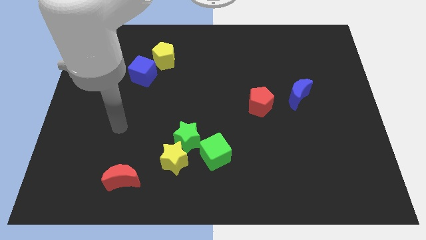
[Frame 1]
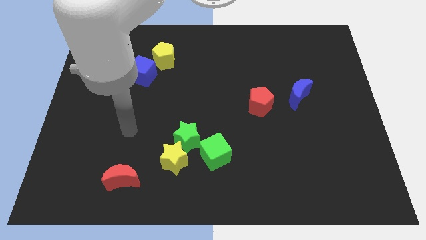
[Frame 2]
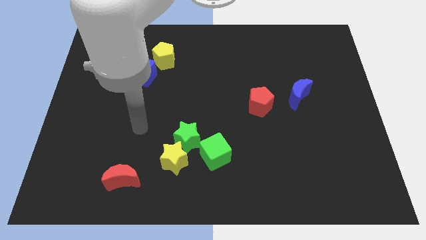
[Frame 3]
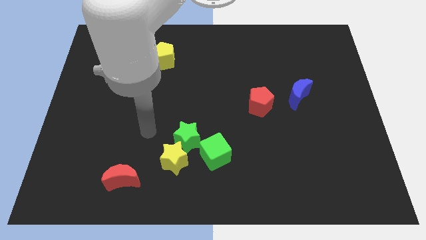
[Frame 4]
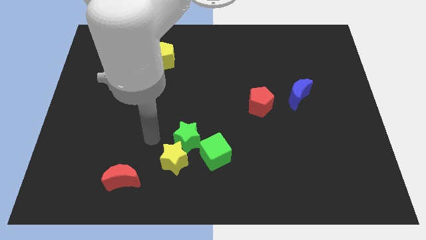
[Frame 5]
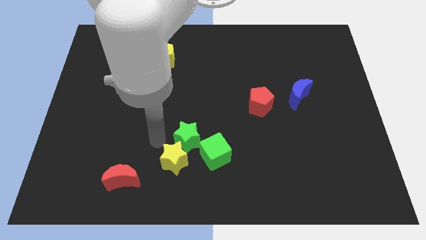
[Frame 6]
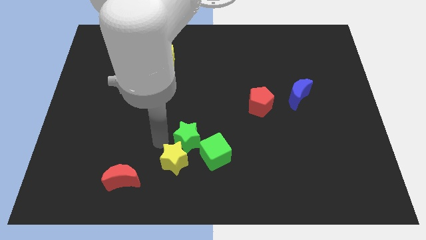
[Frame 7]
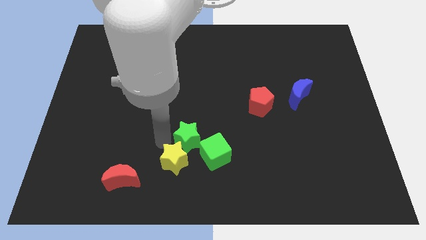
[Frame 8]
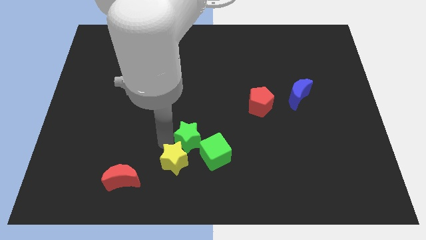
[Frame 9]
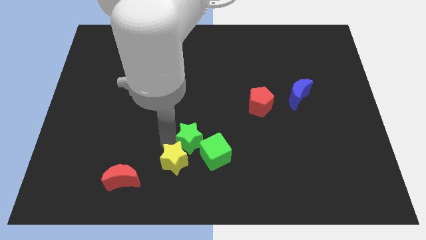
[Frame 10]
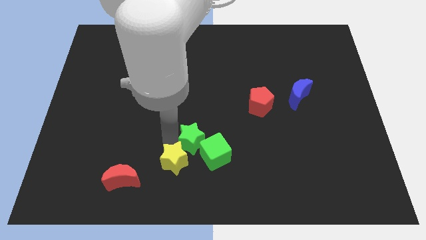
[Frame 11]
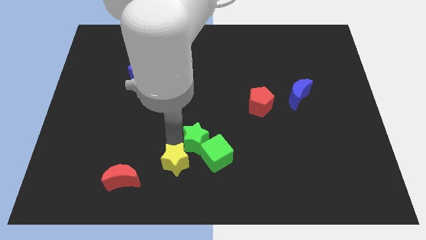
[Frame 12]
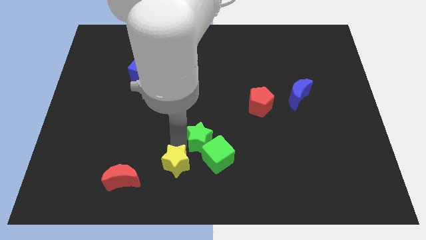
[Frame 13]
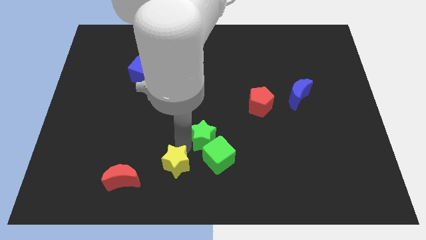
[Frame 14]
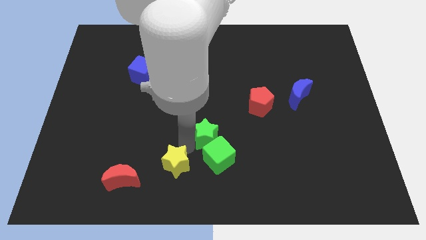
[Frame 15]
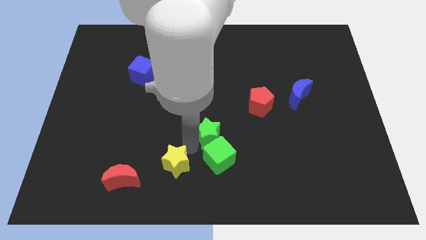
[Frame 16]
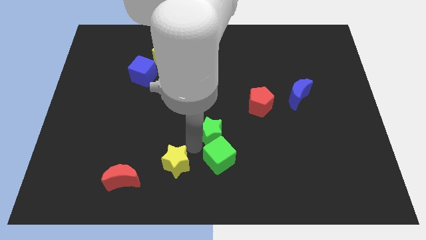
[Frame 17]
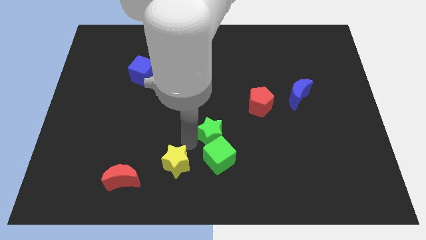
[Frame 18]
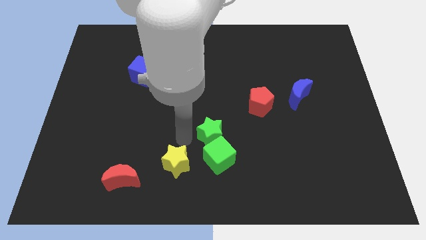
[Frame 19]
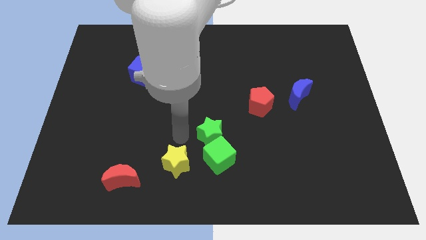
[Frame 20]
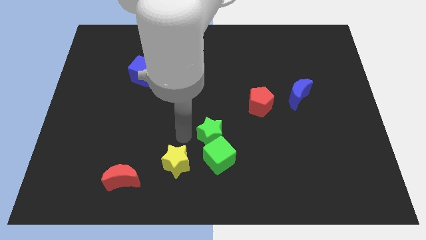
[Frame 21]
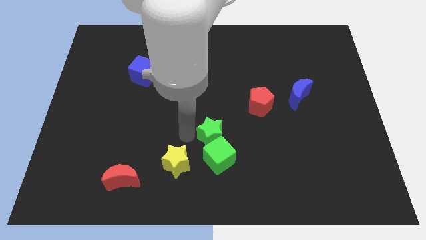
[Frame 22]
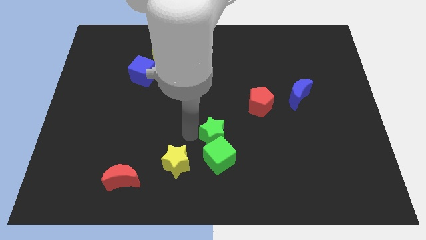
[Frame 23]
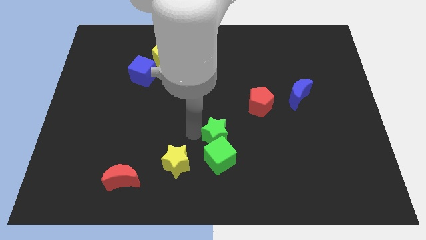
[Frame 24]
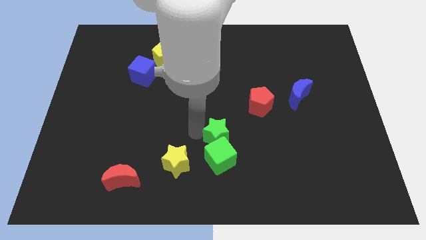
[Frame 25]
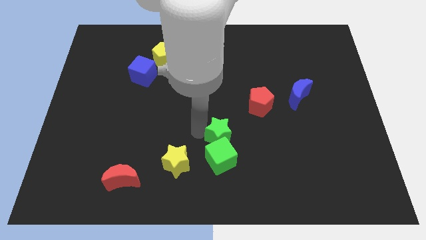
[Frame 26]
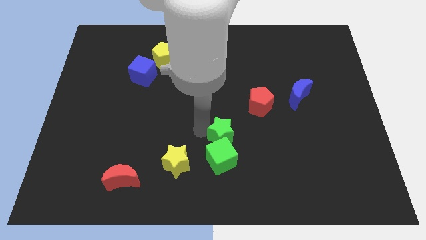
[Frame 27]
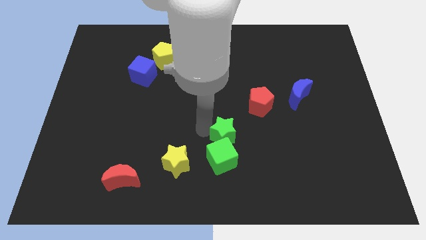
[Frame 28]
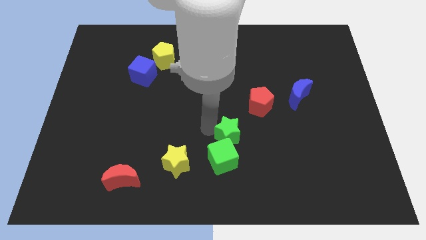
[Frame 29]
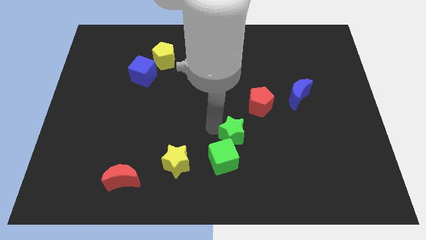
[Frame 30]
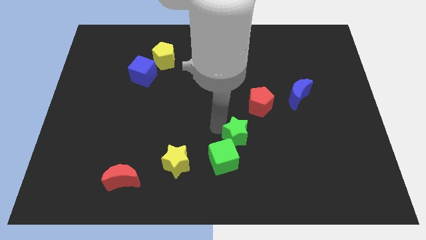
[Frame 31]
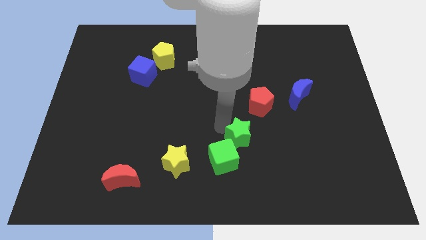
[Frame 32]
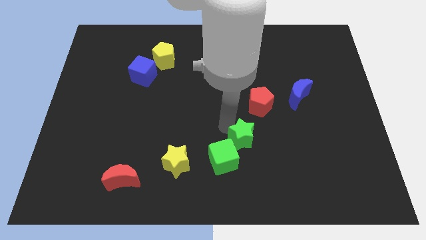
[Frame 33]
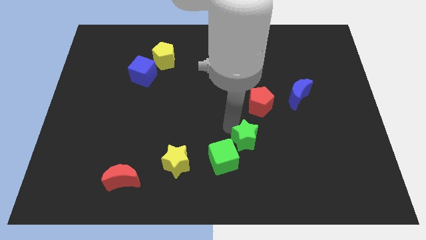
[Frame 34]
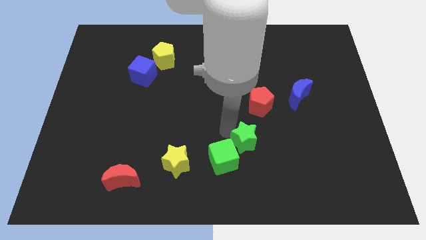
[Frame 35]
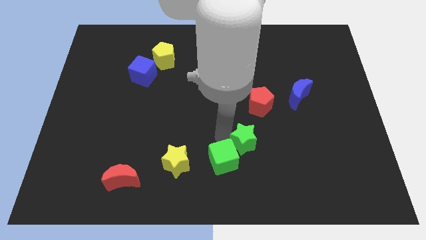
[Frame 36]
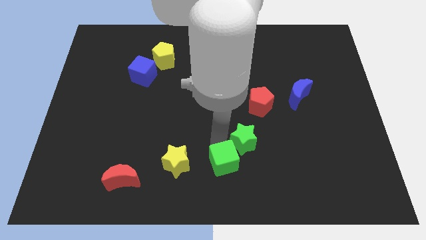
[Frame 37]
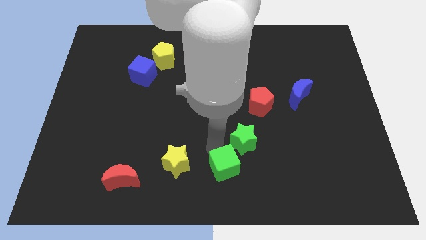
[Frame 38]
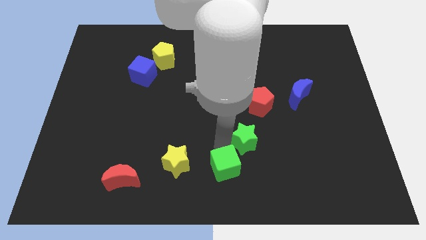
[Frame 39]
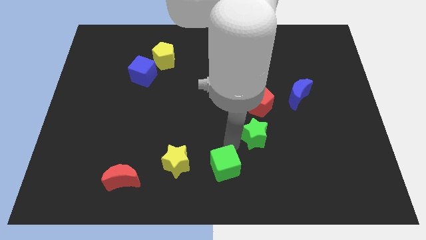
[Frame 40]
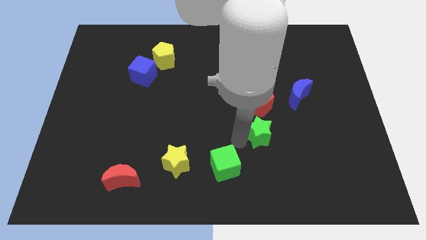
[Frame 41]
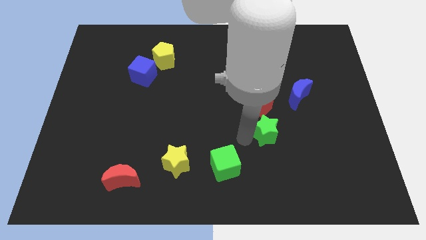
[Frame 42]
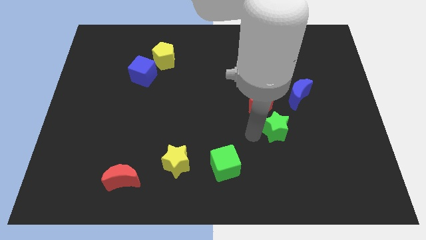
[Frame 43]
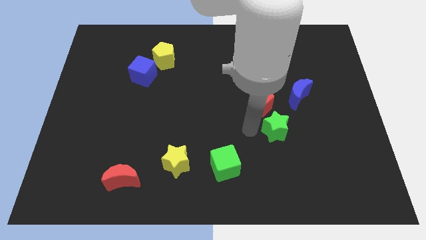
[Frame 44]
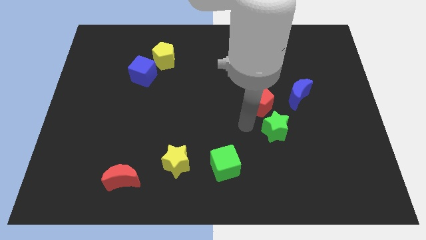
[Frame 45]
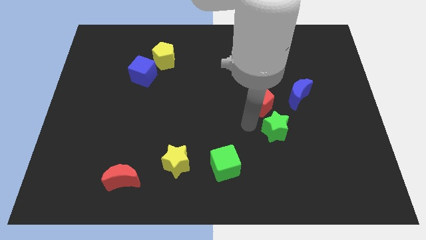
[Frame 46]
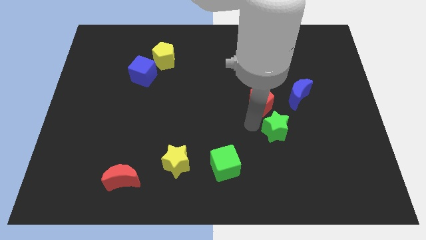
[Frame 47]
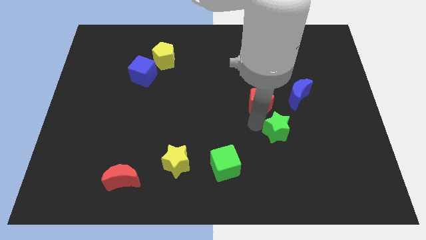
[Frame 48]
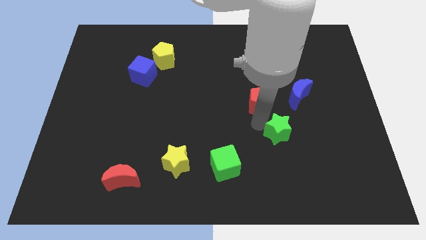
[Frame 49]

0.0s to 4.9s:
slide the green star to the right

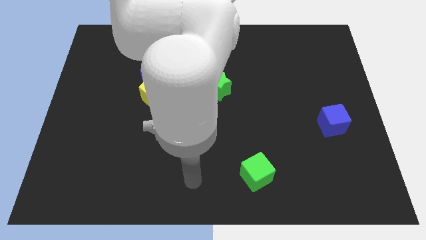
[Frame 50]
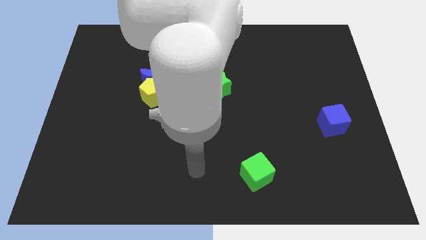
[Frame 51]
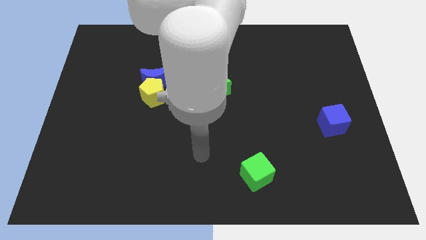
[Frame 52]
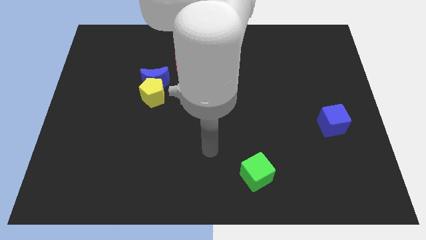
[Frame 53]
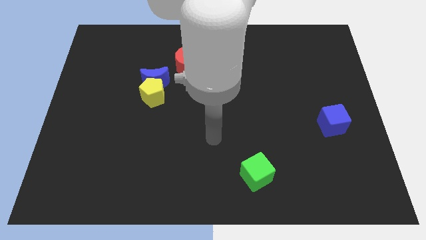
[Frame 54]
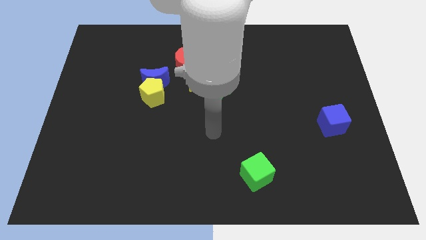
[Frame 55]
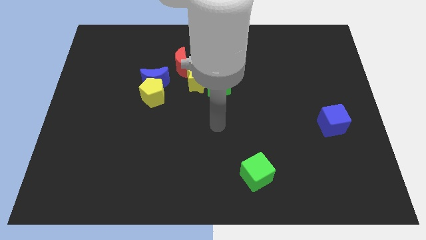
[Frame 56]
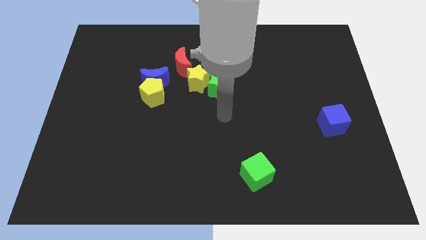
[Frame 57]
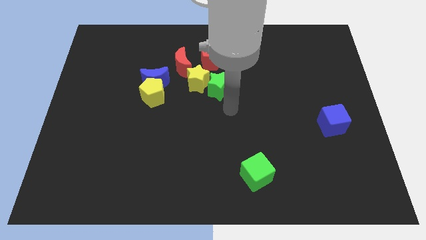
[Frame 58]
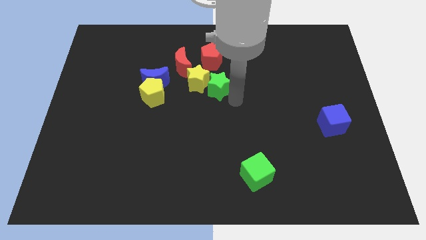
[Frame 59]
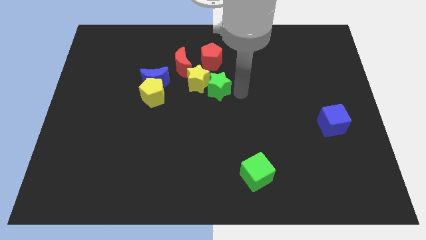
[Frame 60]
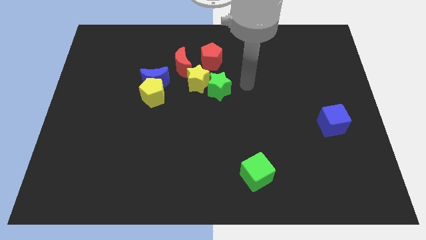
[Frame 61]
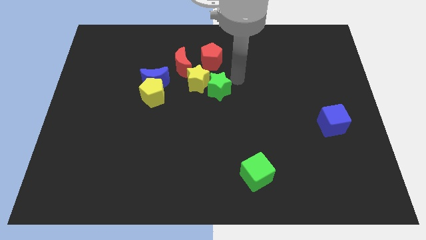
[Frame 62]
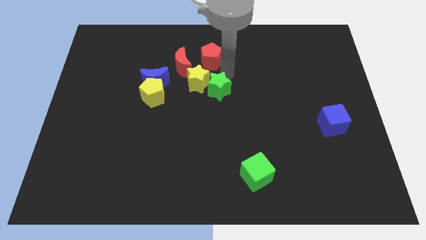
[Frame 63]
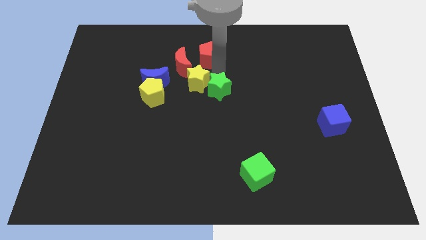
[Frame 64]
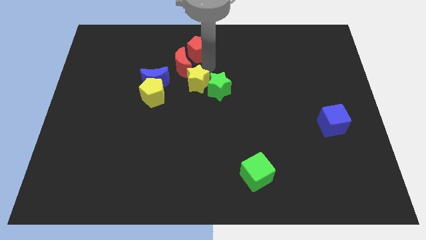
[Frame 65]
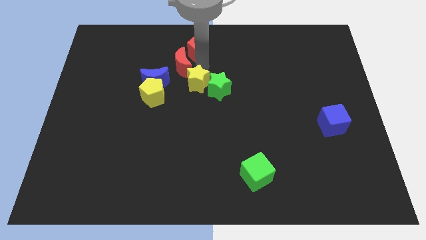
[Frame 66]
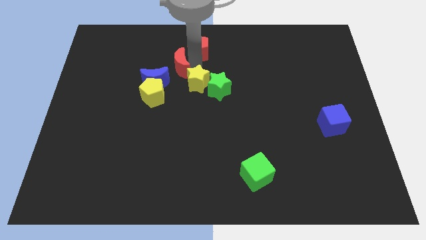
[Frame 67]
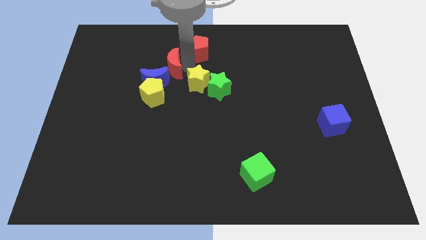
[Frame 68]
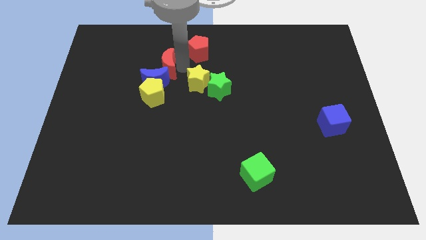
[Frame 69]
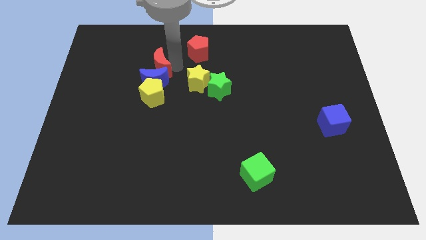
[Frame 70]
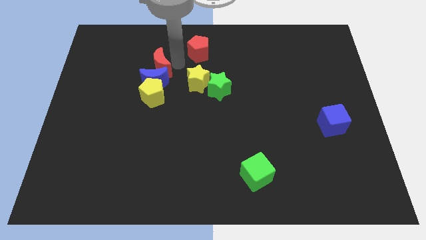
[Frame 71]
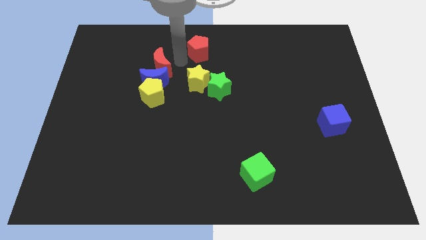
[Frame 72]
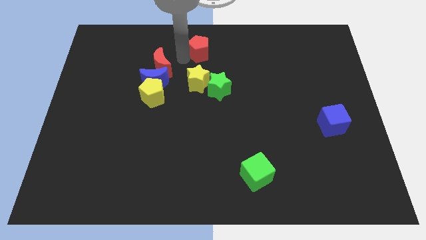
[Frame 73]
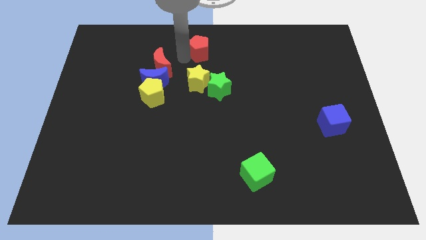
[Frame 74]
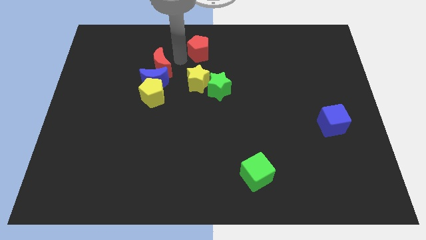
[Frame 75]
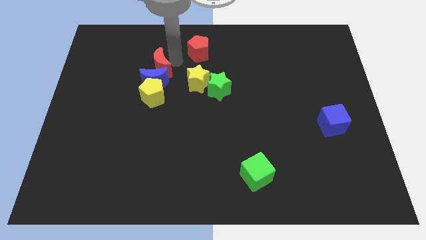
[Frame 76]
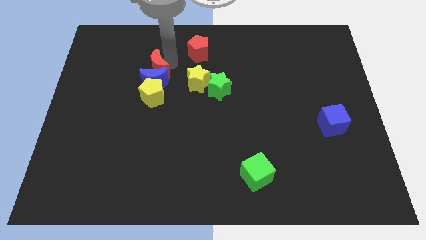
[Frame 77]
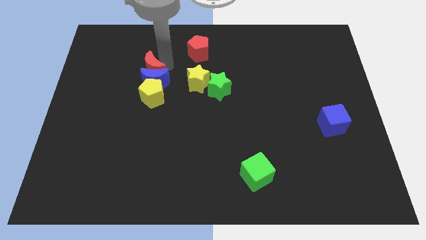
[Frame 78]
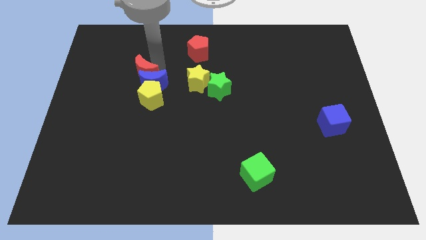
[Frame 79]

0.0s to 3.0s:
slightly push the red moon diagonally downwards and left

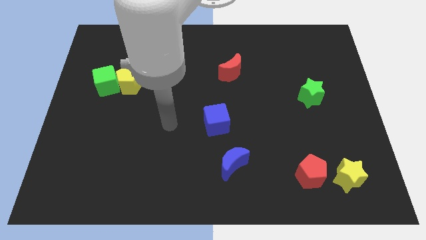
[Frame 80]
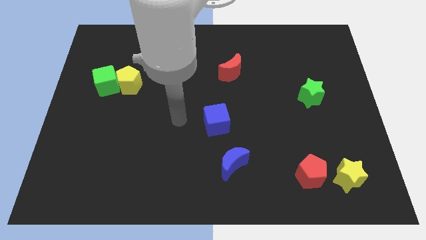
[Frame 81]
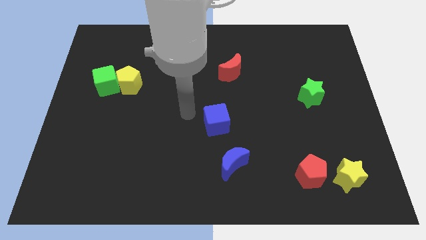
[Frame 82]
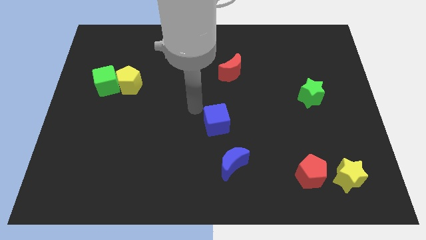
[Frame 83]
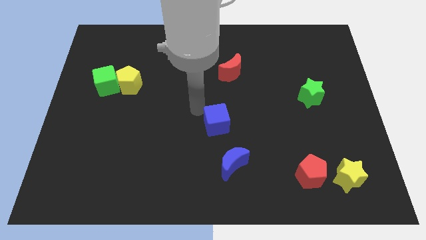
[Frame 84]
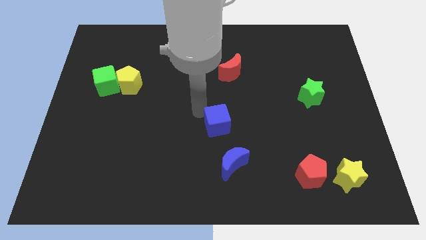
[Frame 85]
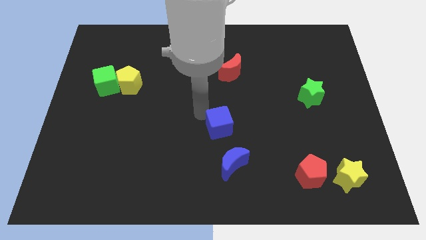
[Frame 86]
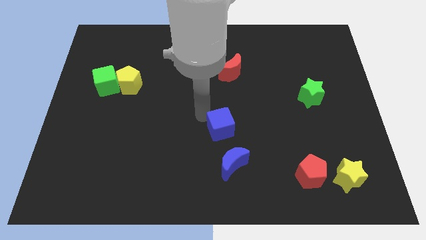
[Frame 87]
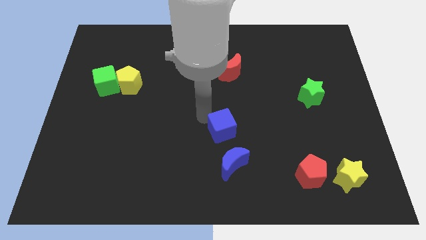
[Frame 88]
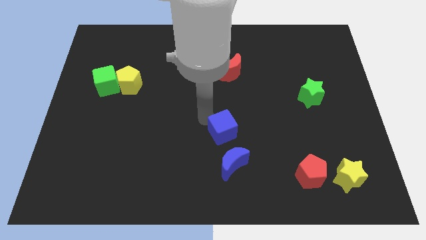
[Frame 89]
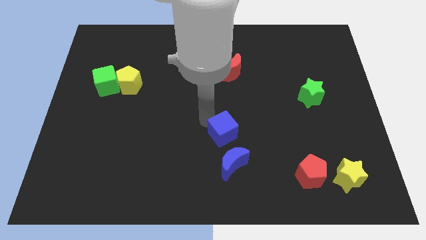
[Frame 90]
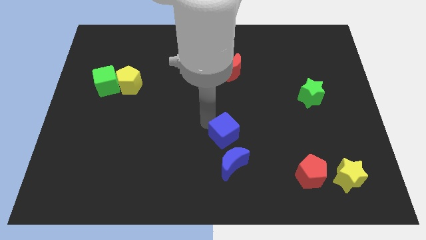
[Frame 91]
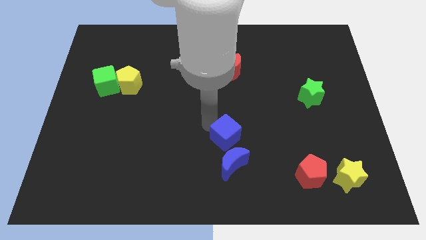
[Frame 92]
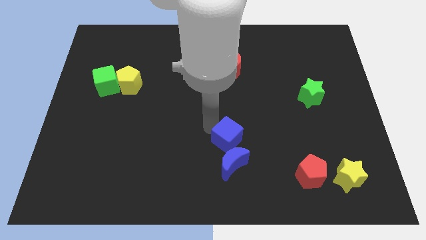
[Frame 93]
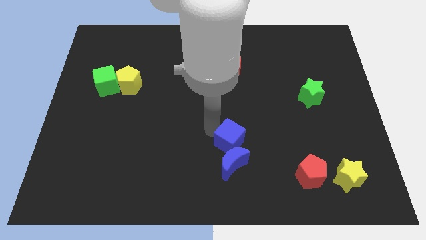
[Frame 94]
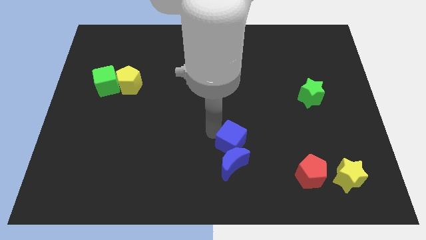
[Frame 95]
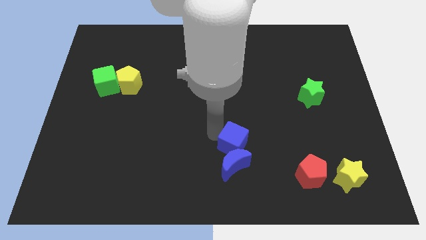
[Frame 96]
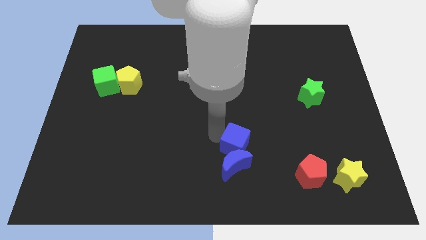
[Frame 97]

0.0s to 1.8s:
move the blue cube a little bit diagonally down and to the right
